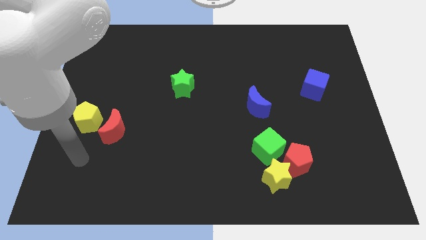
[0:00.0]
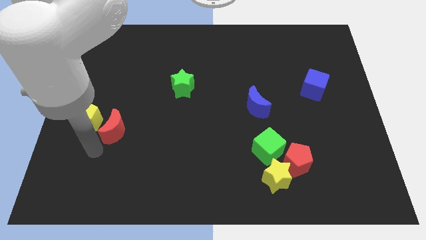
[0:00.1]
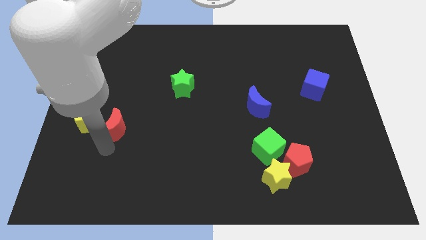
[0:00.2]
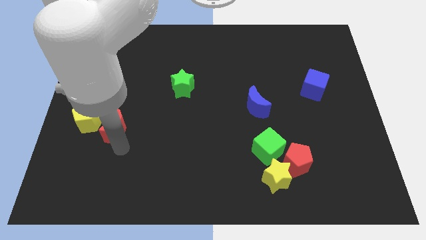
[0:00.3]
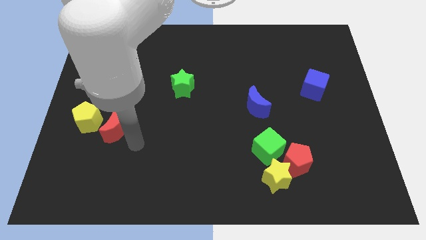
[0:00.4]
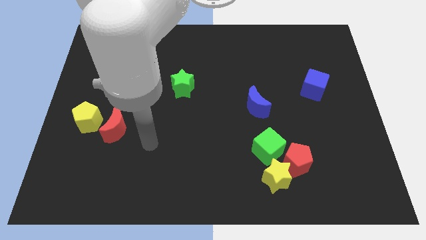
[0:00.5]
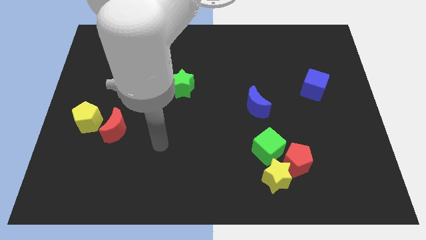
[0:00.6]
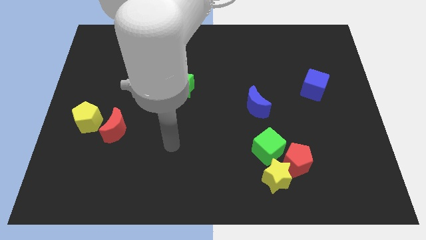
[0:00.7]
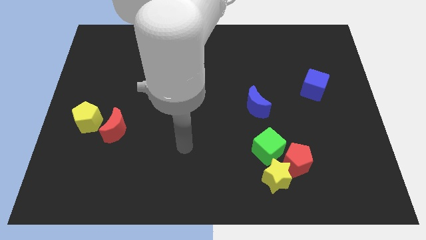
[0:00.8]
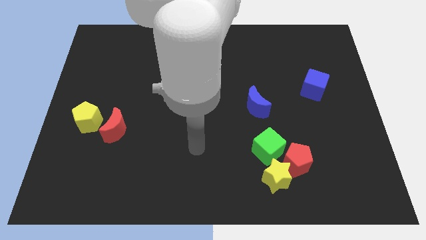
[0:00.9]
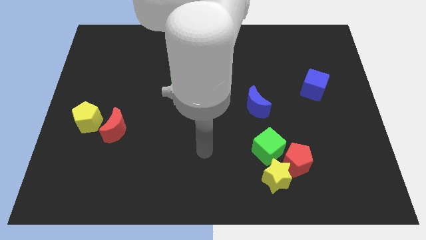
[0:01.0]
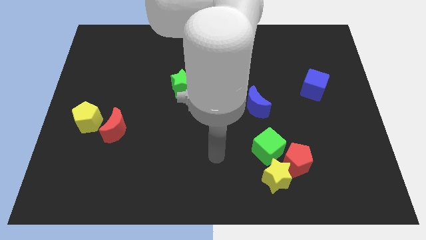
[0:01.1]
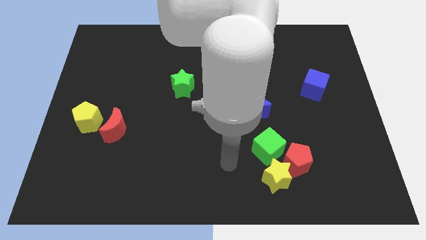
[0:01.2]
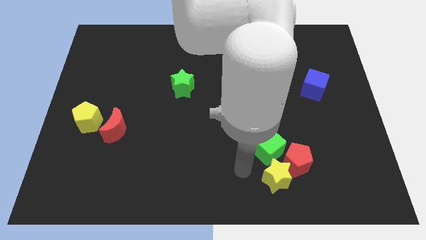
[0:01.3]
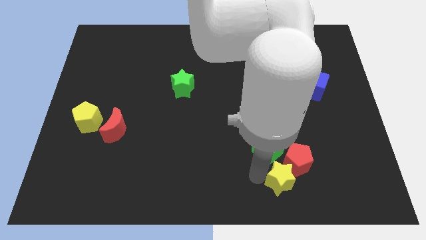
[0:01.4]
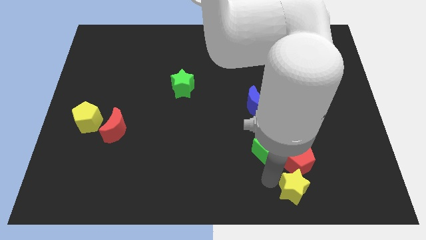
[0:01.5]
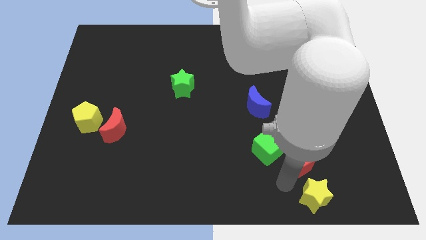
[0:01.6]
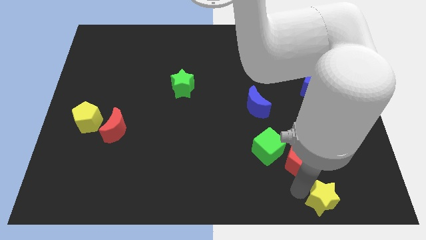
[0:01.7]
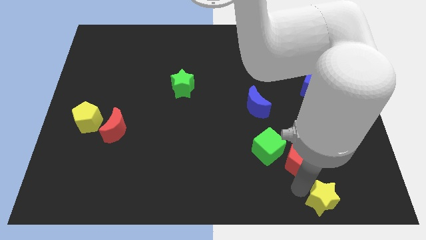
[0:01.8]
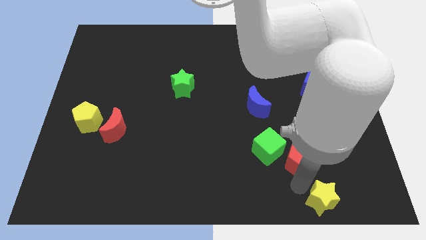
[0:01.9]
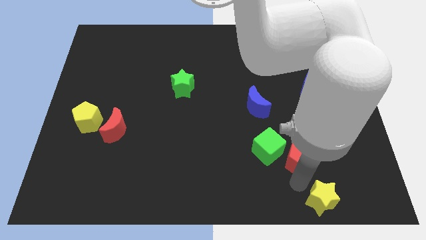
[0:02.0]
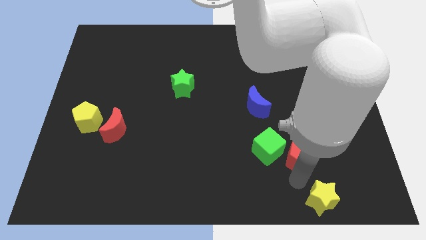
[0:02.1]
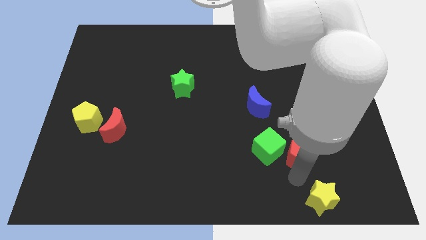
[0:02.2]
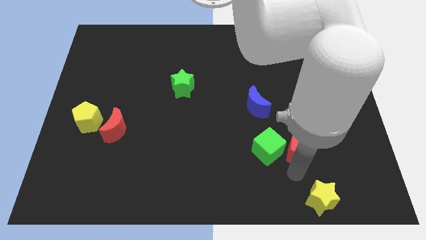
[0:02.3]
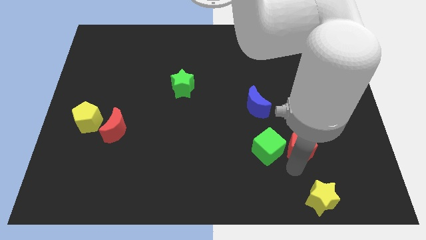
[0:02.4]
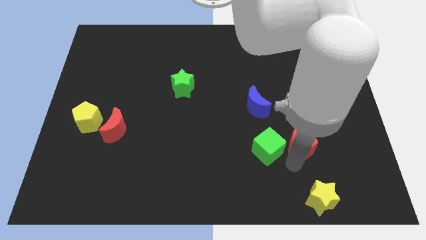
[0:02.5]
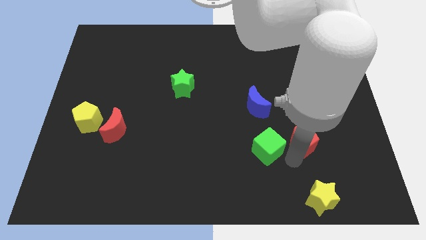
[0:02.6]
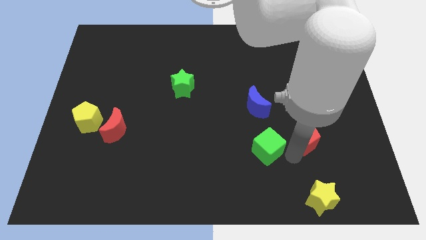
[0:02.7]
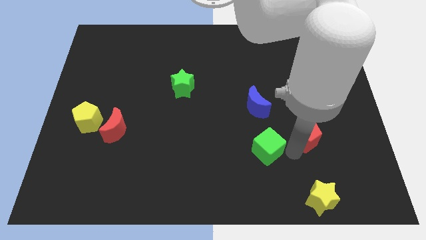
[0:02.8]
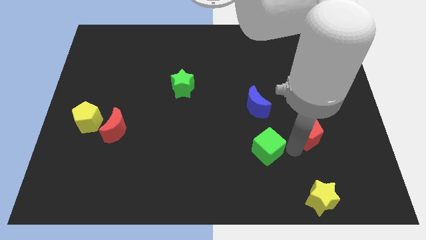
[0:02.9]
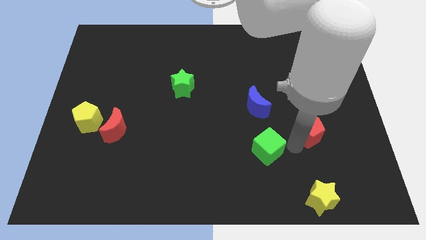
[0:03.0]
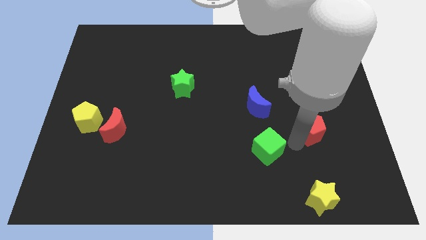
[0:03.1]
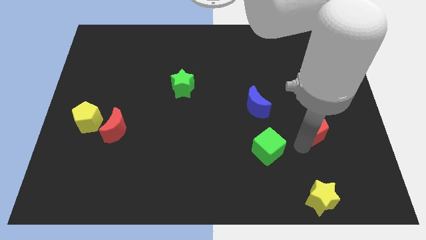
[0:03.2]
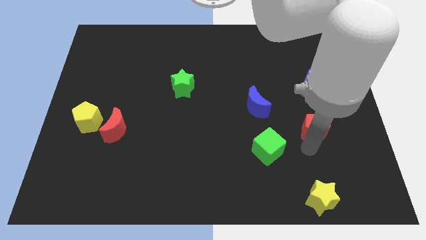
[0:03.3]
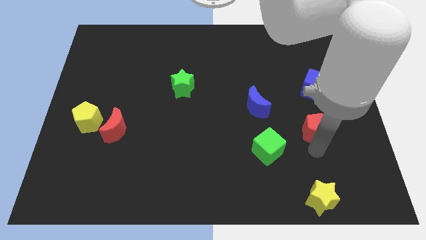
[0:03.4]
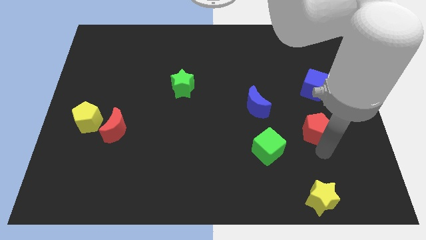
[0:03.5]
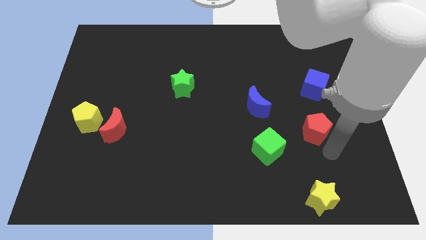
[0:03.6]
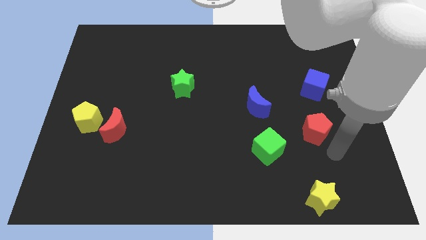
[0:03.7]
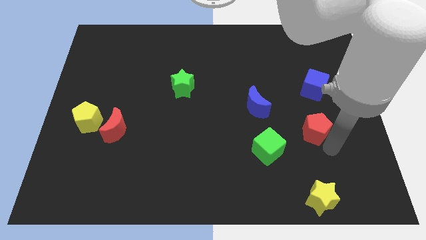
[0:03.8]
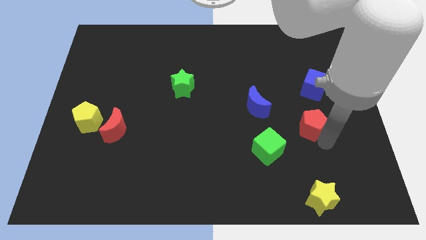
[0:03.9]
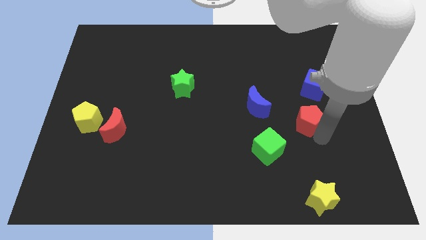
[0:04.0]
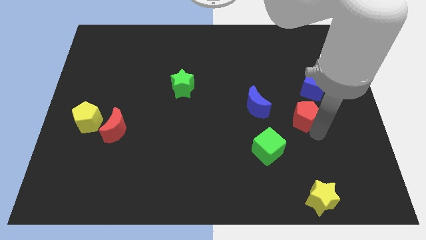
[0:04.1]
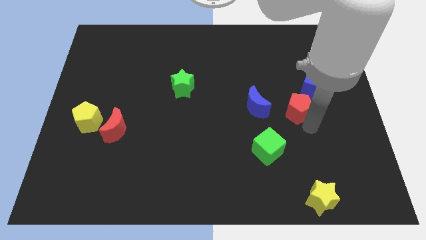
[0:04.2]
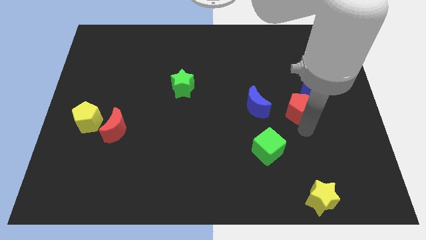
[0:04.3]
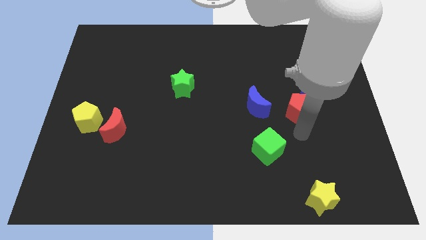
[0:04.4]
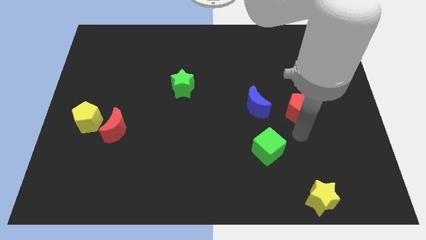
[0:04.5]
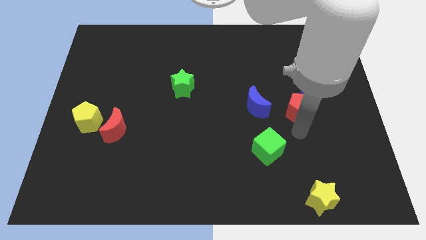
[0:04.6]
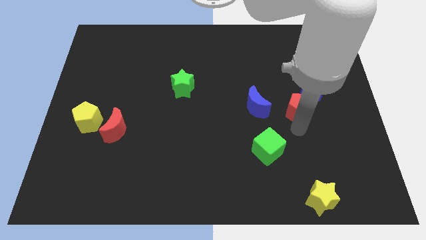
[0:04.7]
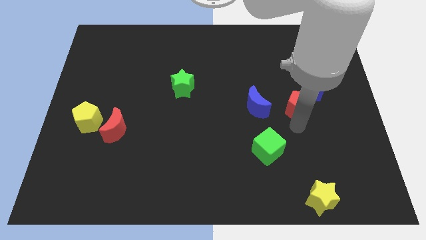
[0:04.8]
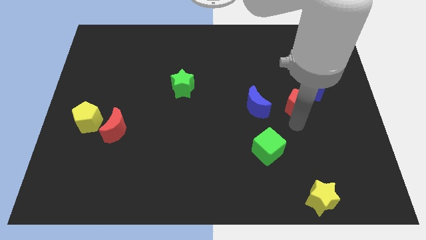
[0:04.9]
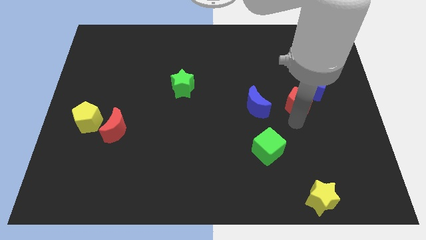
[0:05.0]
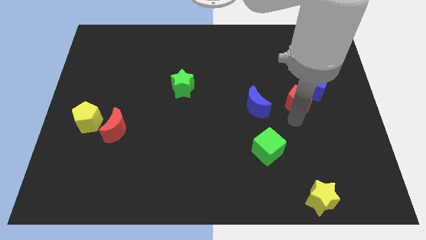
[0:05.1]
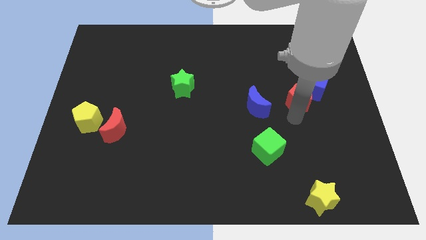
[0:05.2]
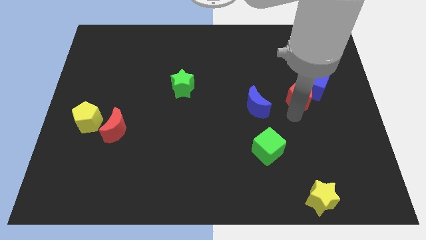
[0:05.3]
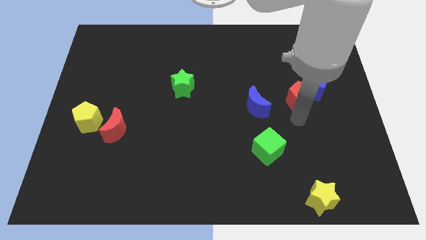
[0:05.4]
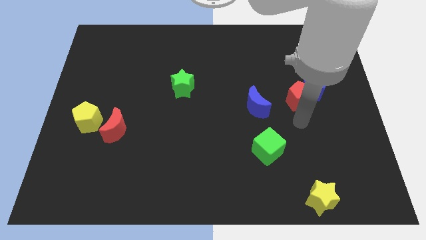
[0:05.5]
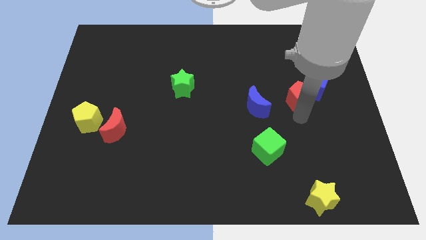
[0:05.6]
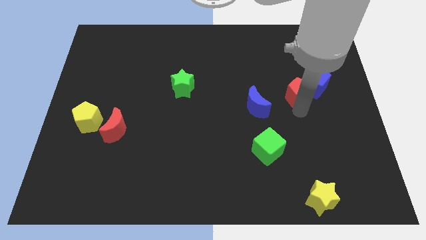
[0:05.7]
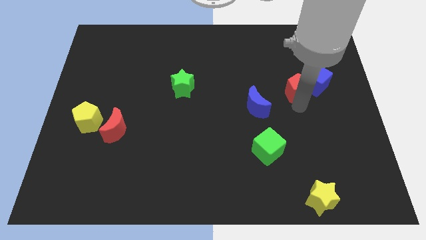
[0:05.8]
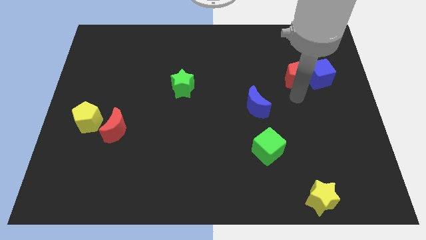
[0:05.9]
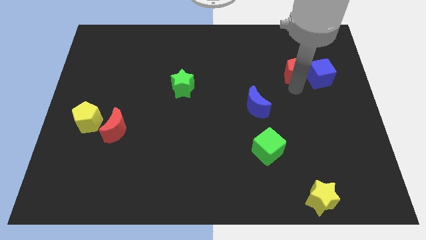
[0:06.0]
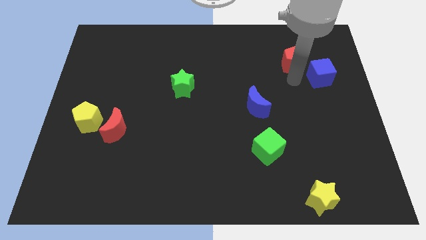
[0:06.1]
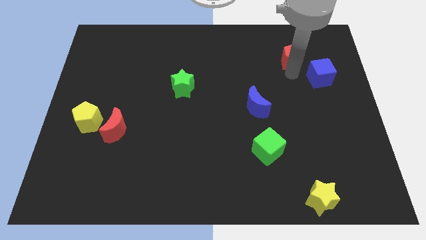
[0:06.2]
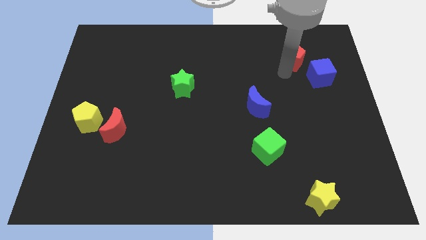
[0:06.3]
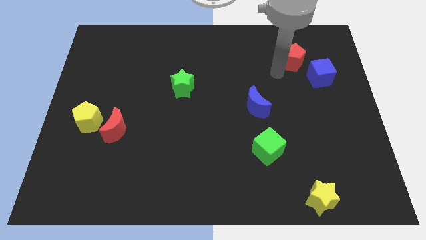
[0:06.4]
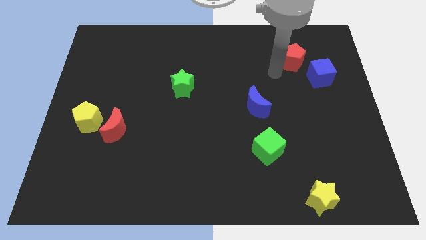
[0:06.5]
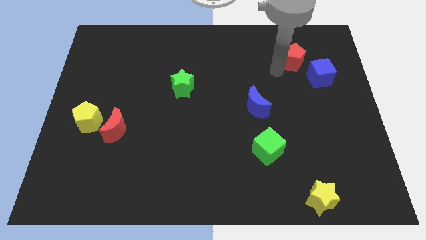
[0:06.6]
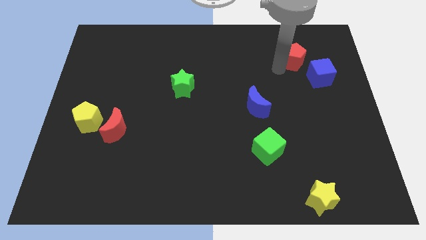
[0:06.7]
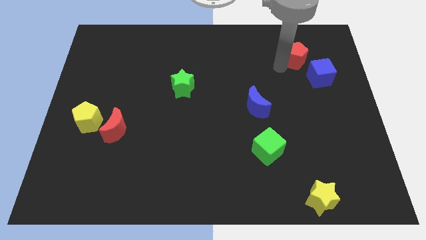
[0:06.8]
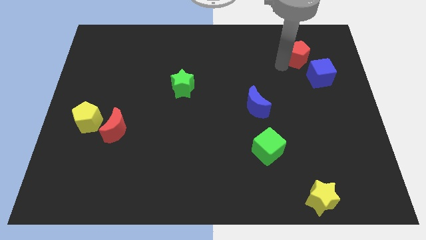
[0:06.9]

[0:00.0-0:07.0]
slide the red pentagon to the top side of the blue cube
